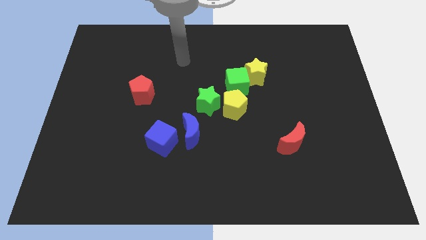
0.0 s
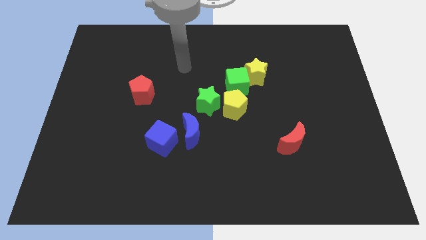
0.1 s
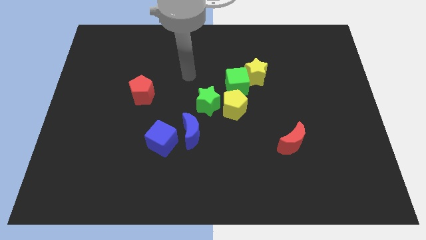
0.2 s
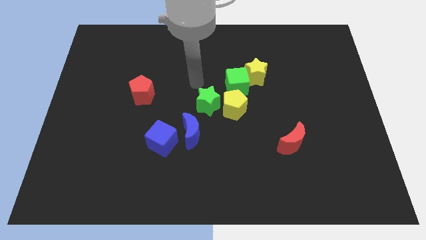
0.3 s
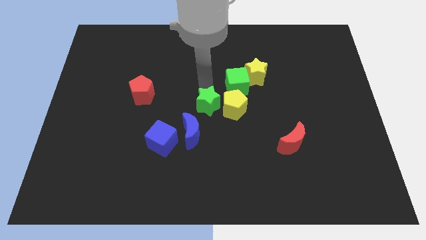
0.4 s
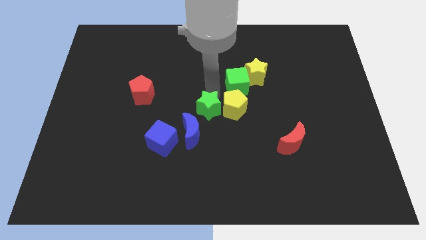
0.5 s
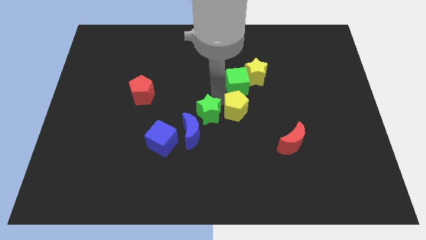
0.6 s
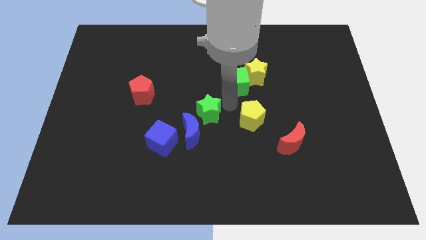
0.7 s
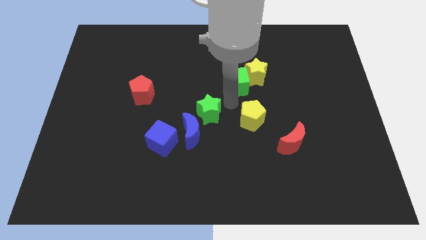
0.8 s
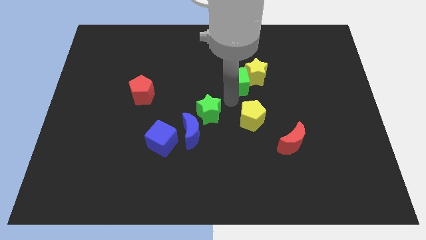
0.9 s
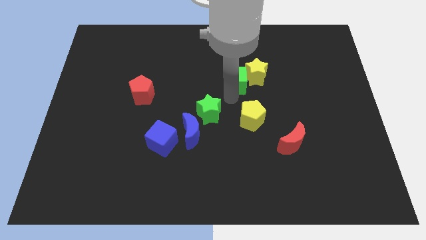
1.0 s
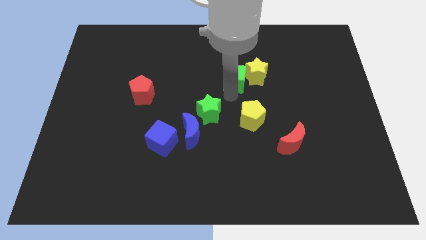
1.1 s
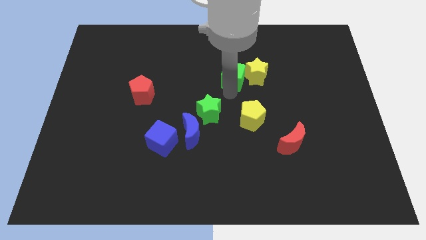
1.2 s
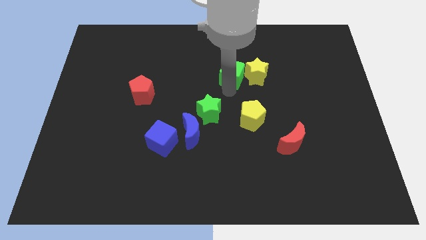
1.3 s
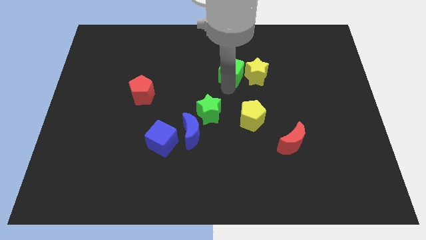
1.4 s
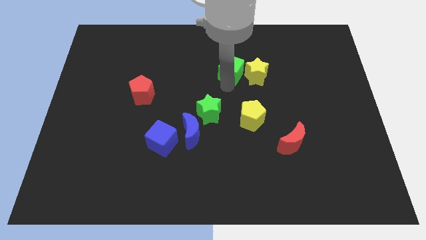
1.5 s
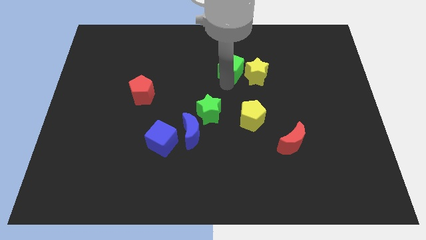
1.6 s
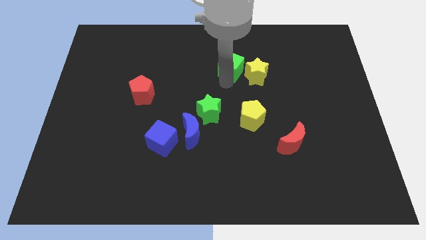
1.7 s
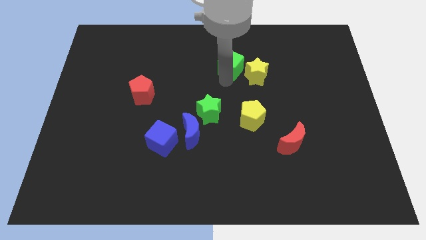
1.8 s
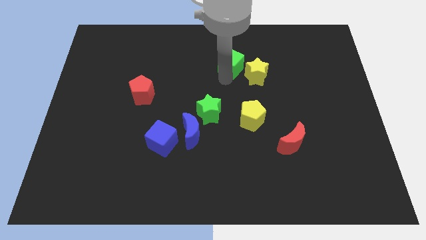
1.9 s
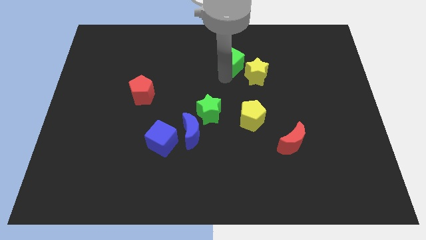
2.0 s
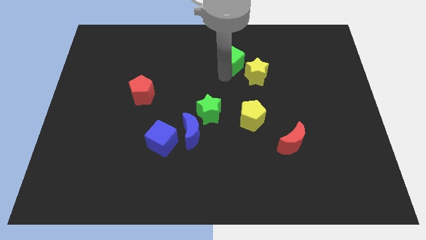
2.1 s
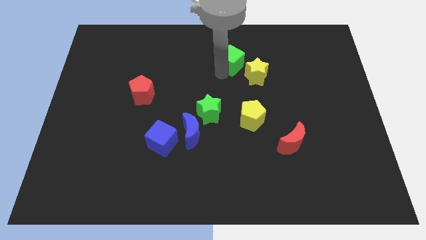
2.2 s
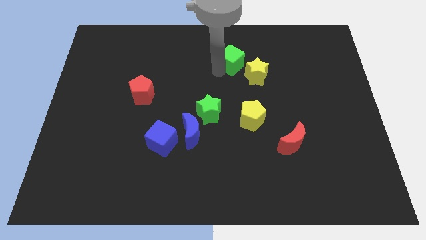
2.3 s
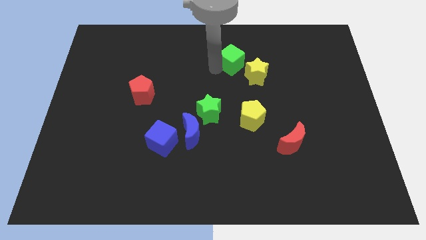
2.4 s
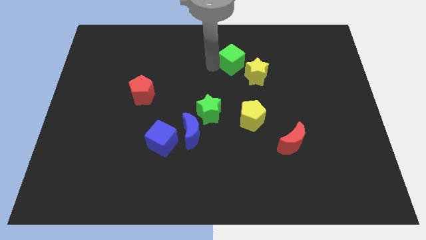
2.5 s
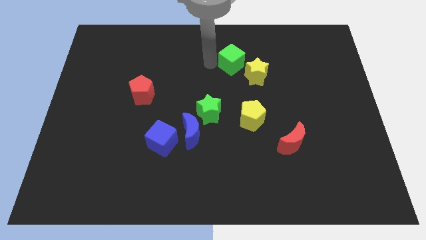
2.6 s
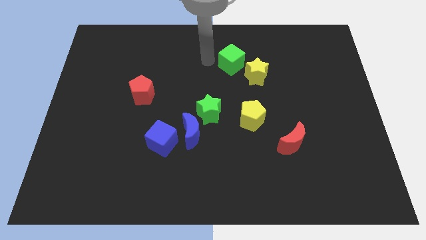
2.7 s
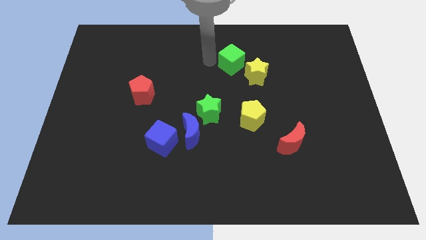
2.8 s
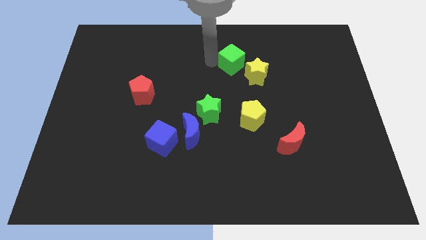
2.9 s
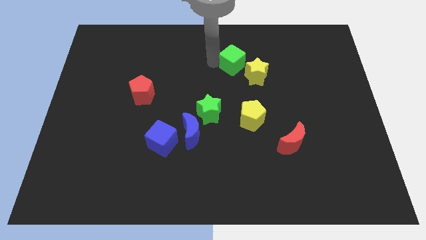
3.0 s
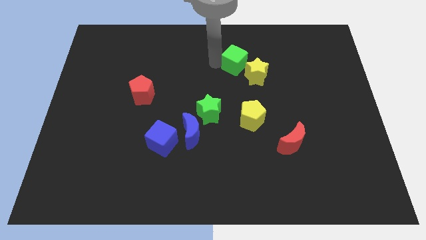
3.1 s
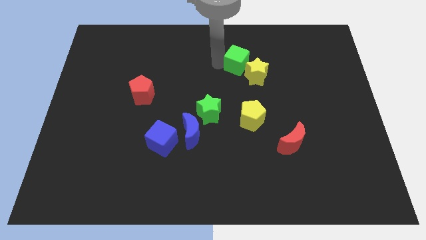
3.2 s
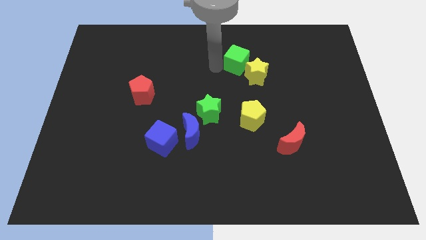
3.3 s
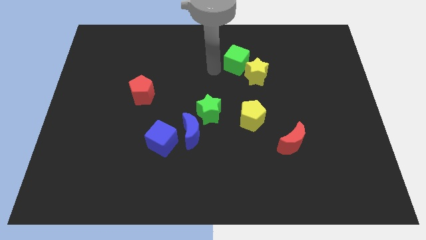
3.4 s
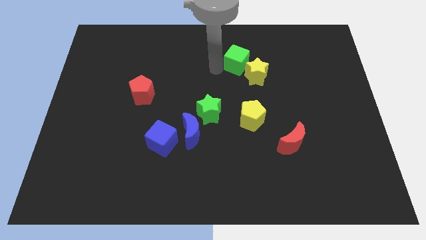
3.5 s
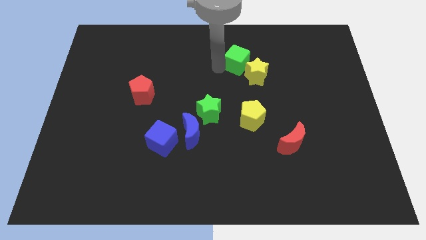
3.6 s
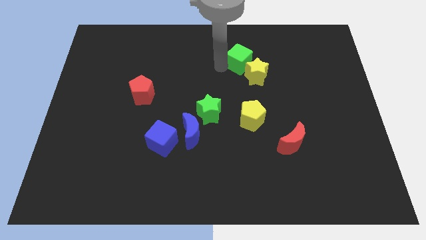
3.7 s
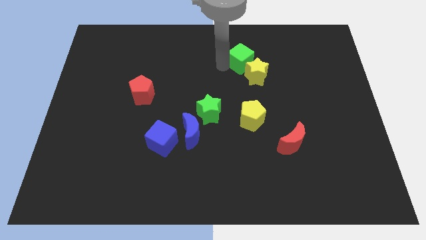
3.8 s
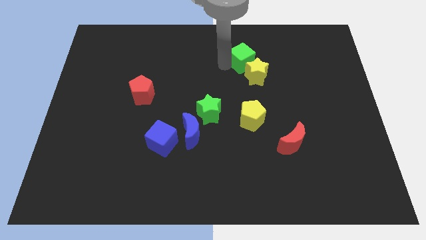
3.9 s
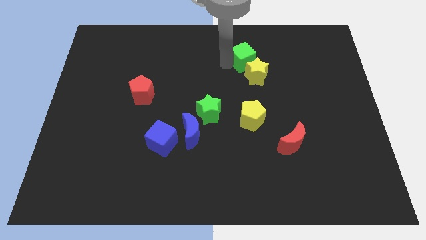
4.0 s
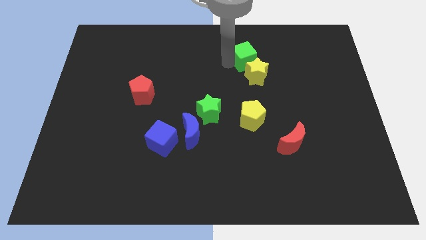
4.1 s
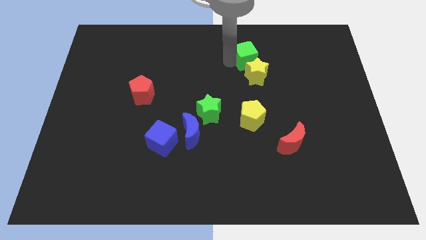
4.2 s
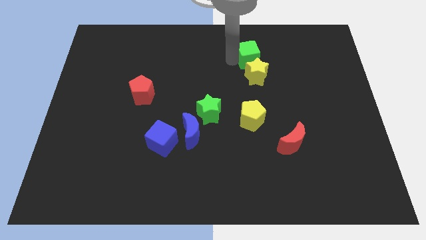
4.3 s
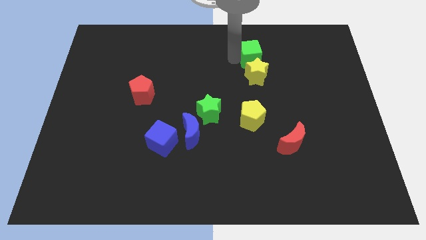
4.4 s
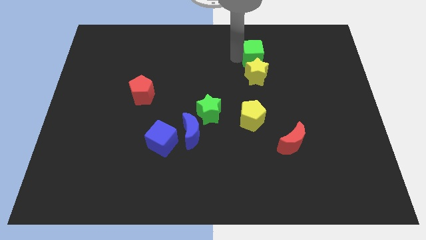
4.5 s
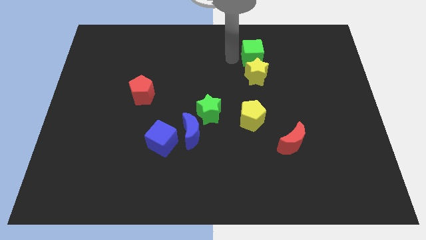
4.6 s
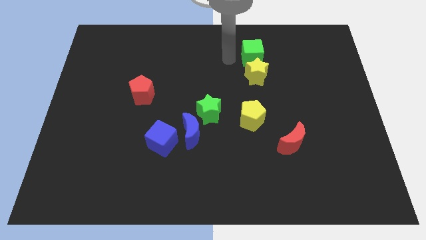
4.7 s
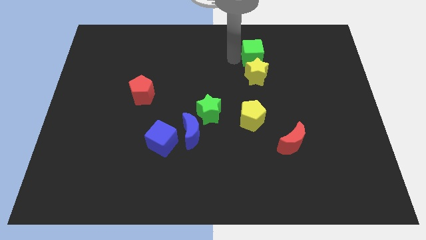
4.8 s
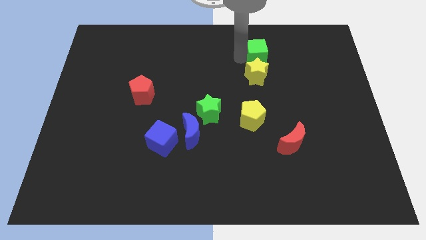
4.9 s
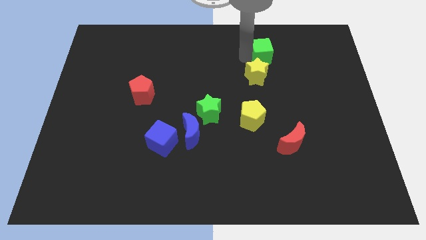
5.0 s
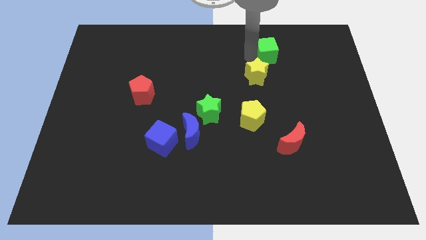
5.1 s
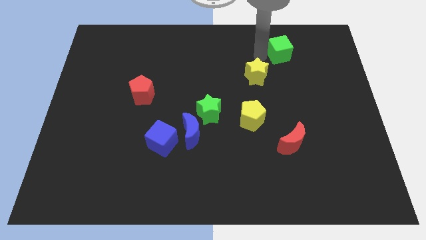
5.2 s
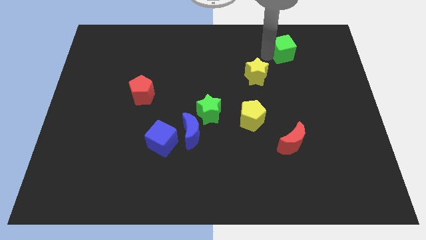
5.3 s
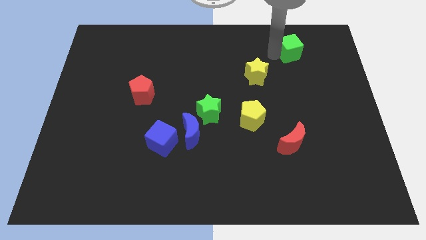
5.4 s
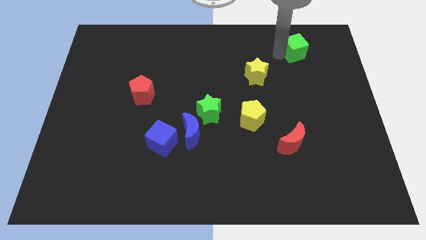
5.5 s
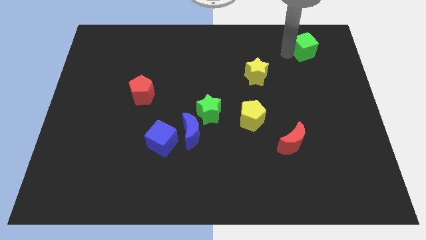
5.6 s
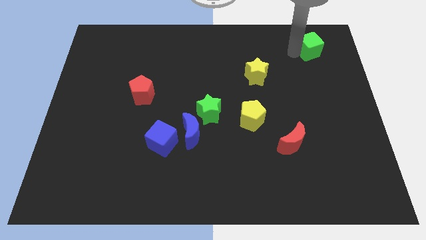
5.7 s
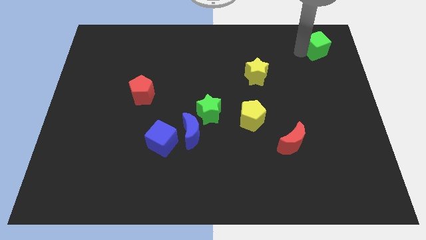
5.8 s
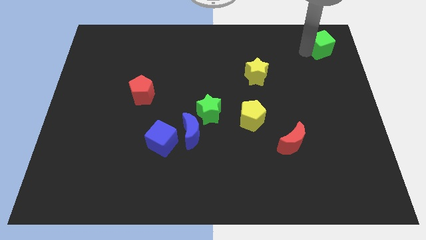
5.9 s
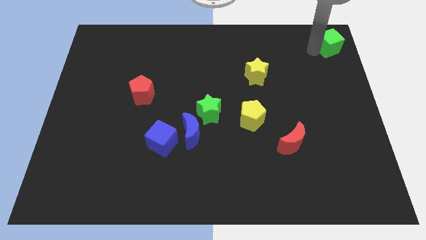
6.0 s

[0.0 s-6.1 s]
push the green cube to the top right of the board

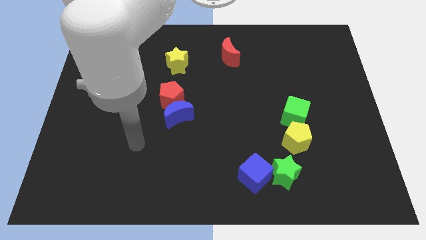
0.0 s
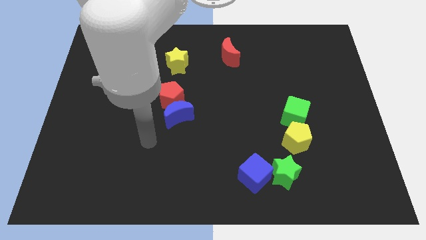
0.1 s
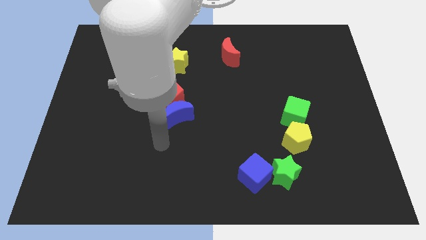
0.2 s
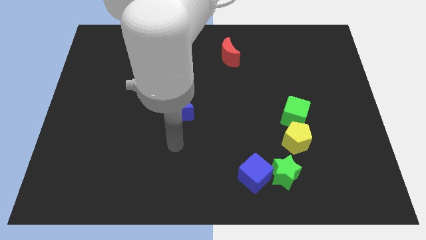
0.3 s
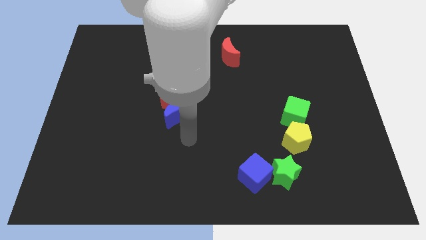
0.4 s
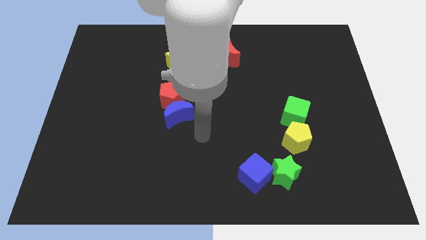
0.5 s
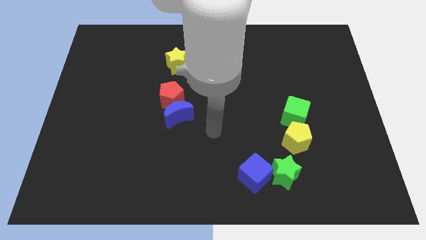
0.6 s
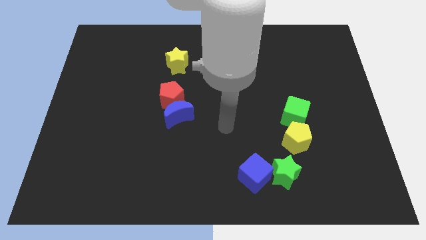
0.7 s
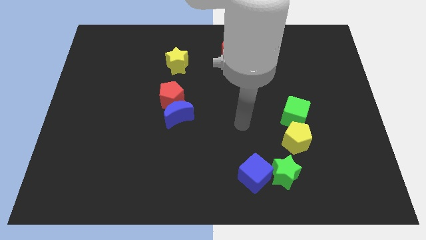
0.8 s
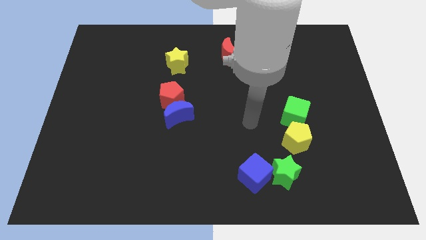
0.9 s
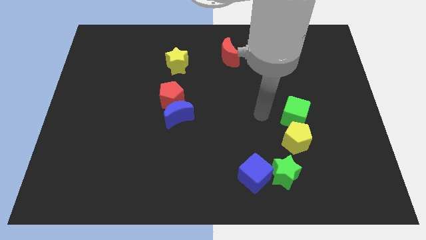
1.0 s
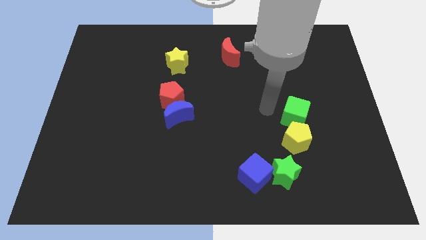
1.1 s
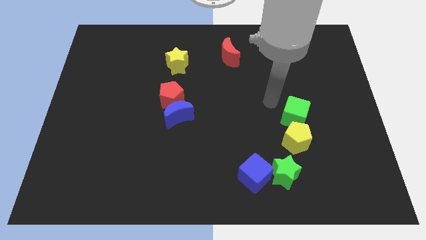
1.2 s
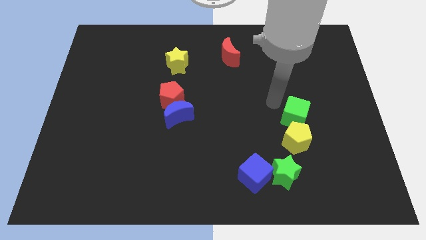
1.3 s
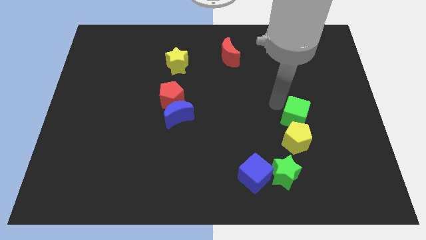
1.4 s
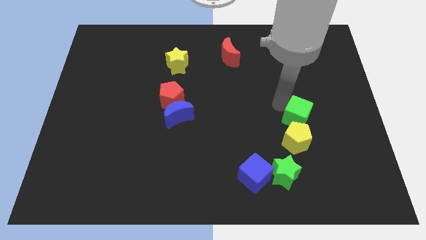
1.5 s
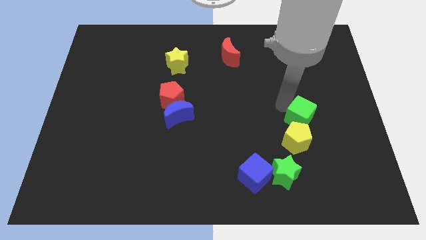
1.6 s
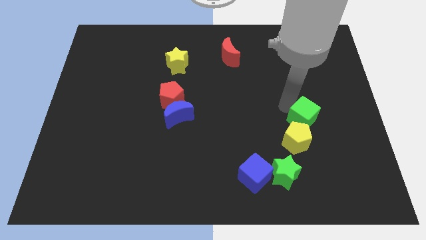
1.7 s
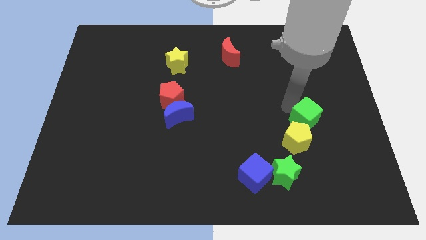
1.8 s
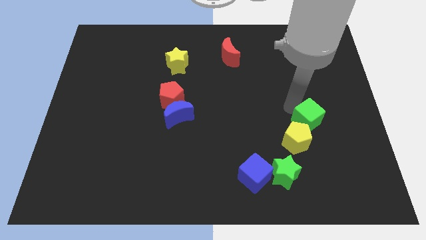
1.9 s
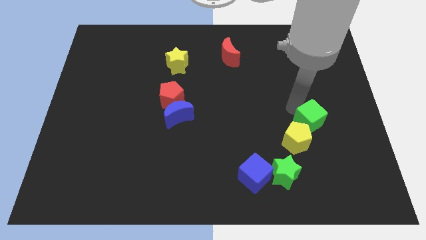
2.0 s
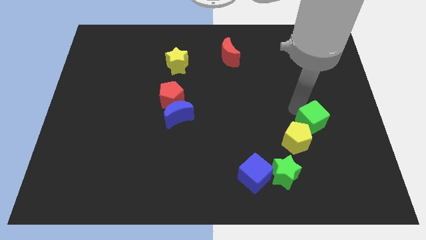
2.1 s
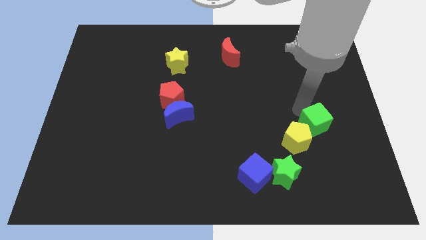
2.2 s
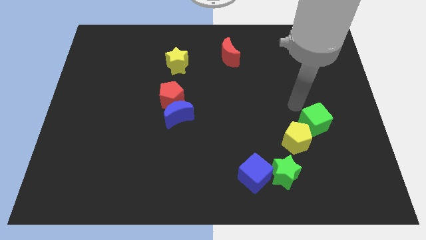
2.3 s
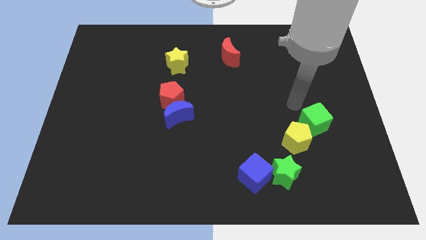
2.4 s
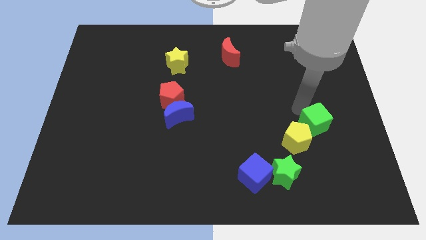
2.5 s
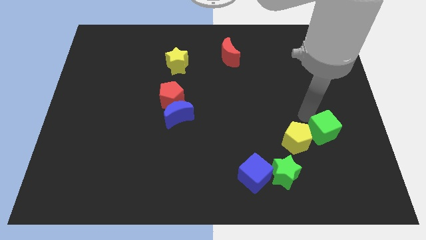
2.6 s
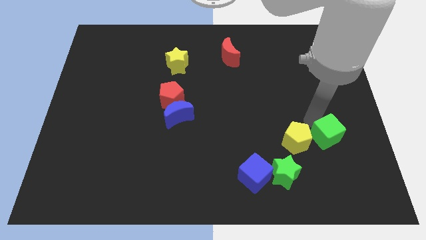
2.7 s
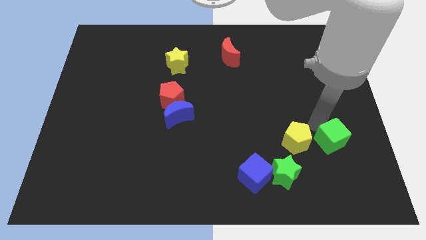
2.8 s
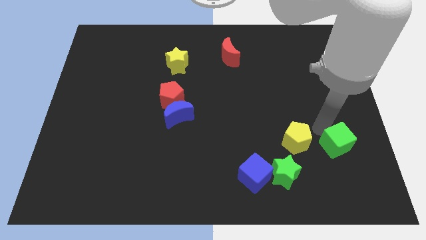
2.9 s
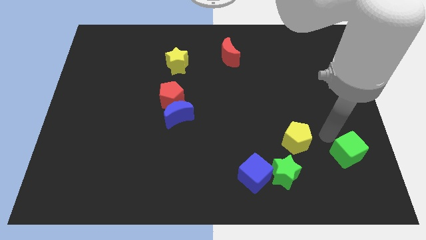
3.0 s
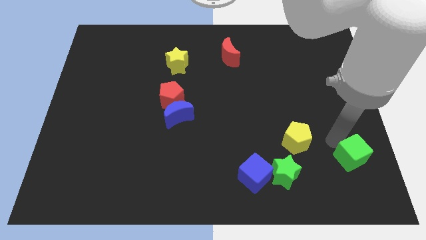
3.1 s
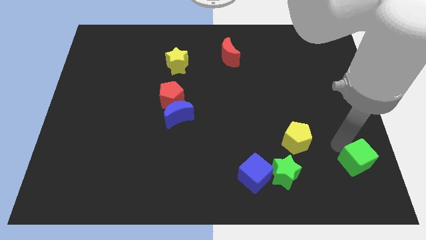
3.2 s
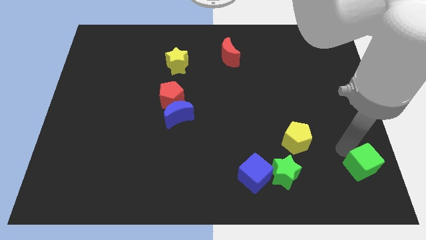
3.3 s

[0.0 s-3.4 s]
slide the green cube to the lower right corner
